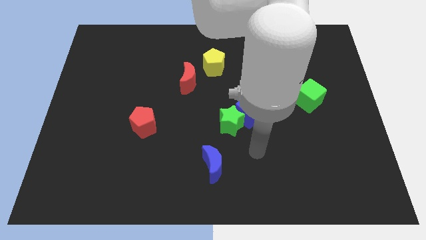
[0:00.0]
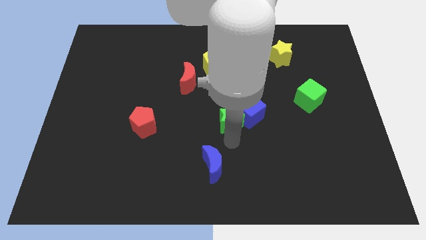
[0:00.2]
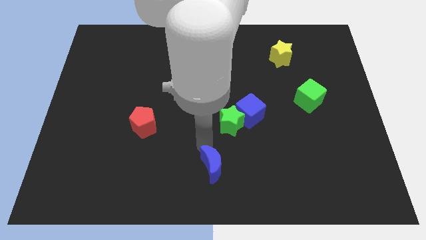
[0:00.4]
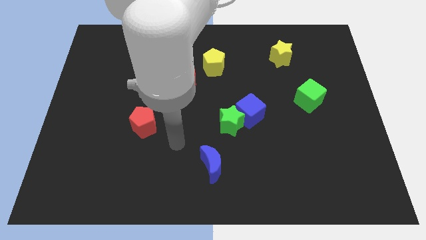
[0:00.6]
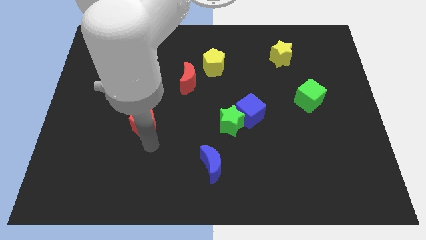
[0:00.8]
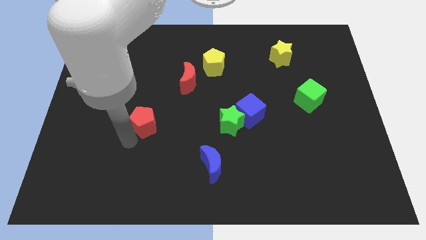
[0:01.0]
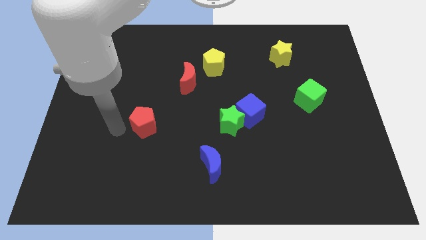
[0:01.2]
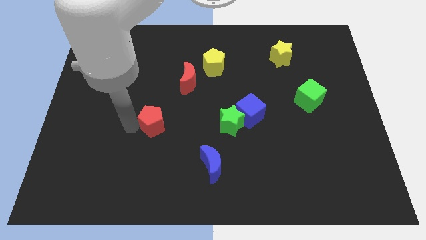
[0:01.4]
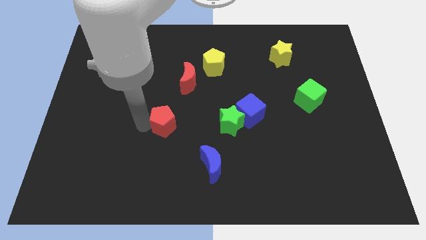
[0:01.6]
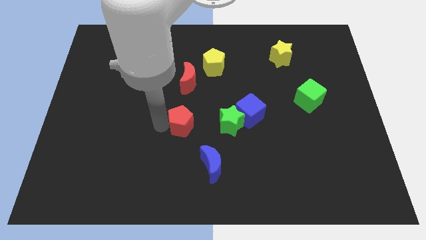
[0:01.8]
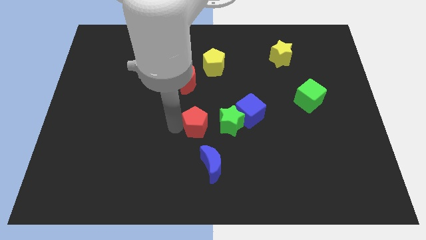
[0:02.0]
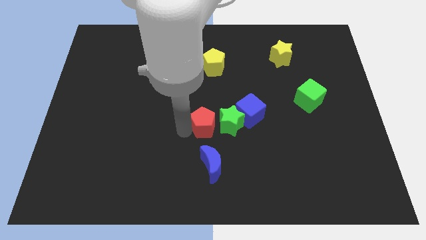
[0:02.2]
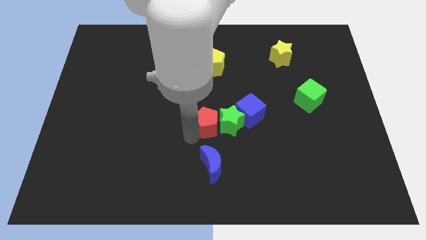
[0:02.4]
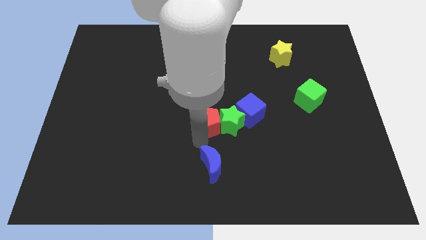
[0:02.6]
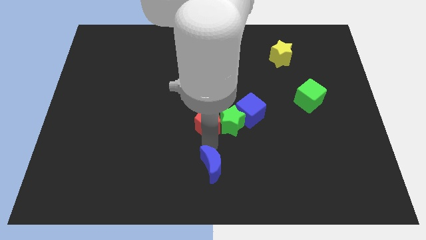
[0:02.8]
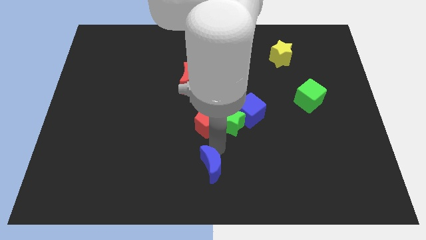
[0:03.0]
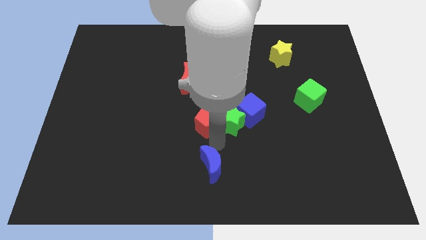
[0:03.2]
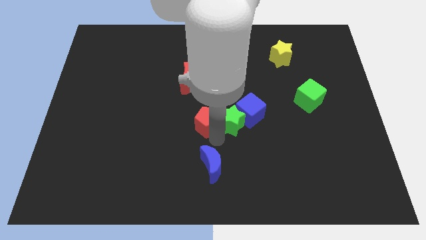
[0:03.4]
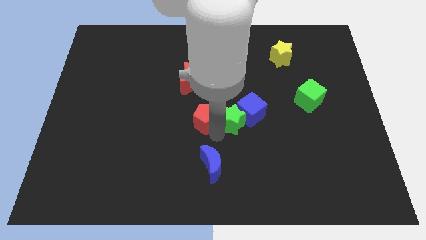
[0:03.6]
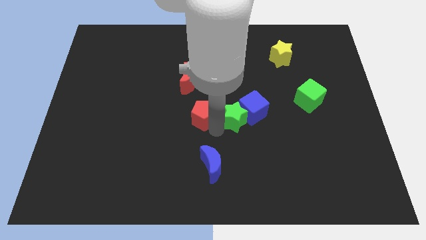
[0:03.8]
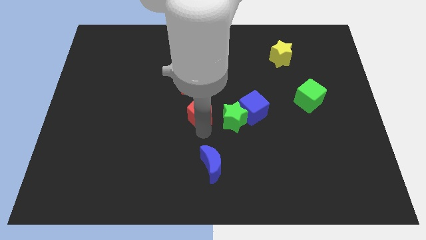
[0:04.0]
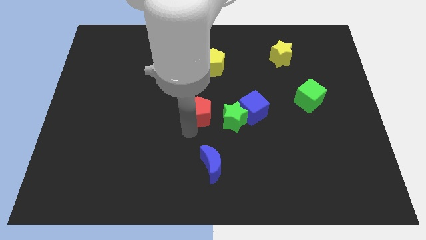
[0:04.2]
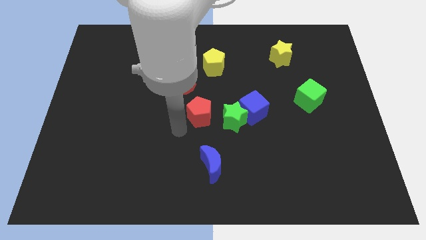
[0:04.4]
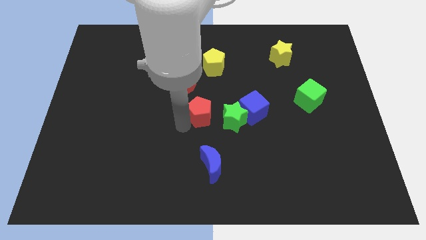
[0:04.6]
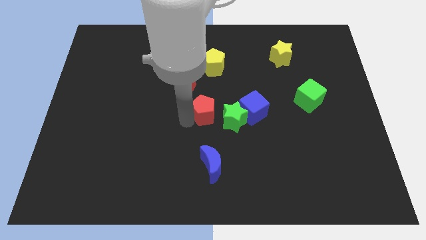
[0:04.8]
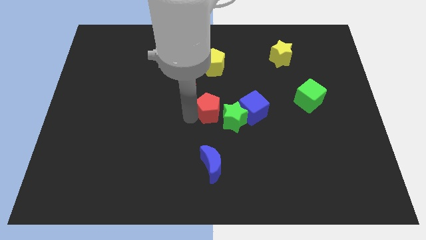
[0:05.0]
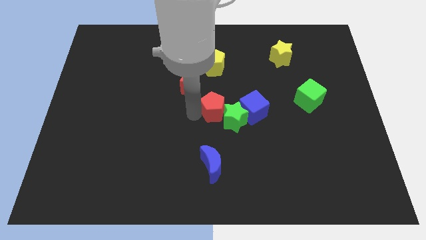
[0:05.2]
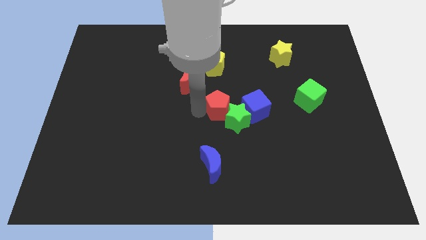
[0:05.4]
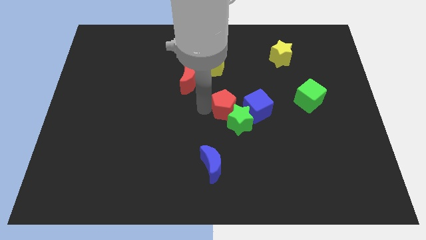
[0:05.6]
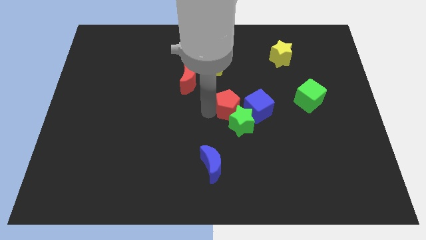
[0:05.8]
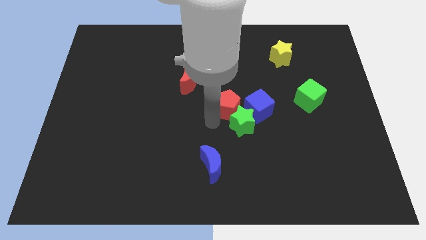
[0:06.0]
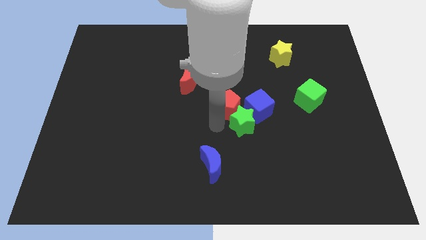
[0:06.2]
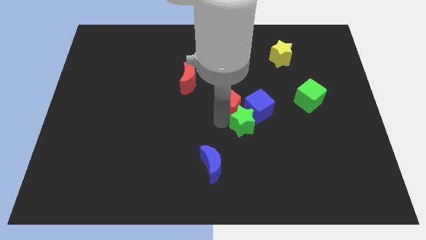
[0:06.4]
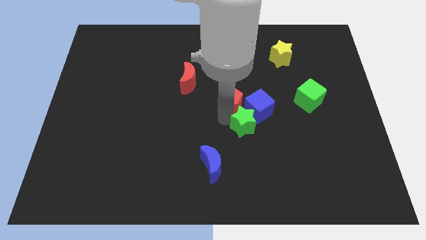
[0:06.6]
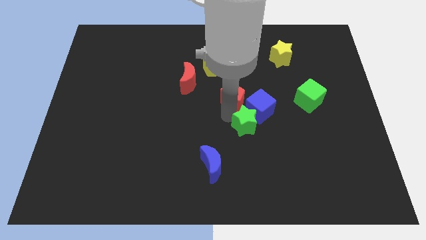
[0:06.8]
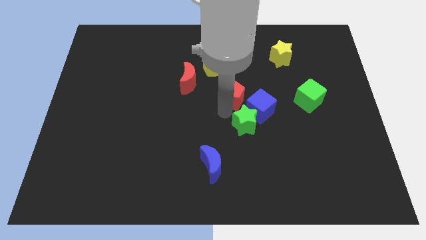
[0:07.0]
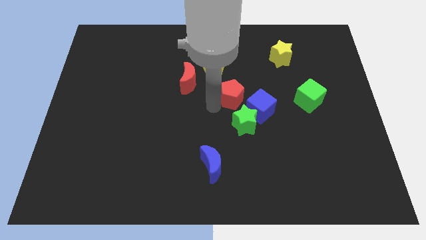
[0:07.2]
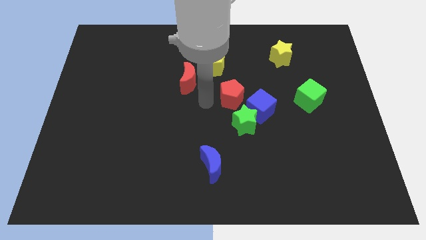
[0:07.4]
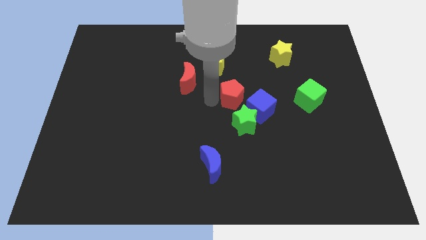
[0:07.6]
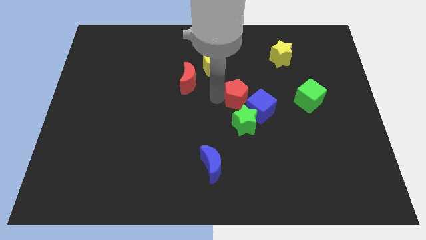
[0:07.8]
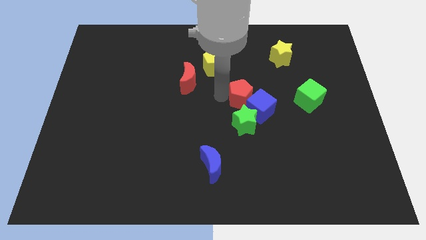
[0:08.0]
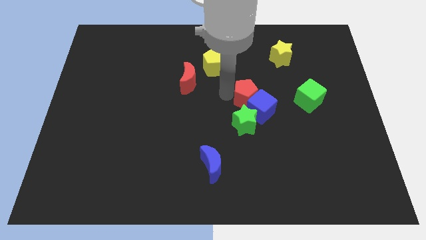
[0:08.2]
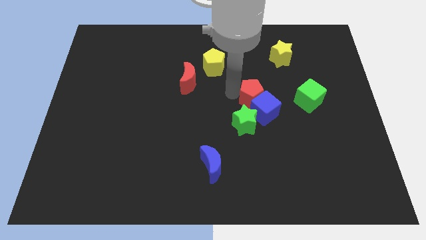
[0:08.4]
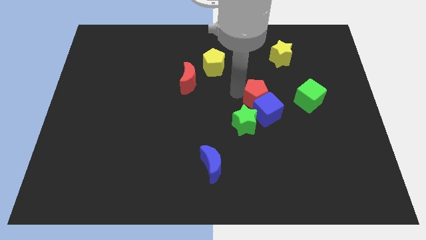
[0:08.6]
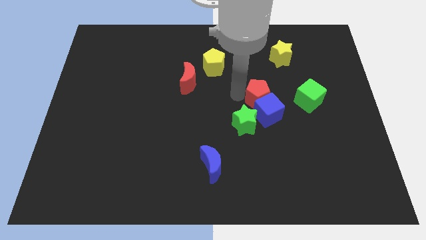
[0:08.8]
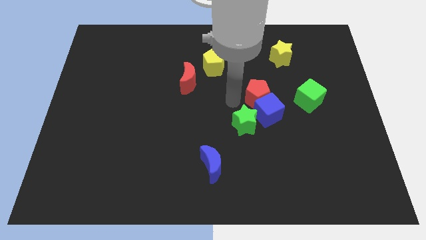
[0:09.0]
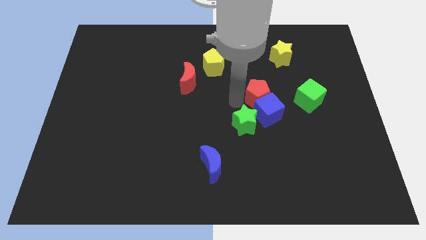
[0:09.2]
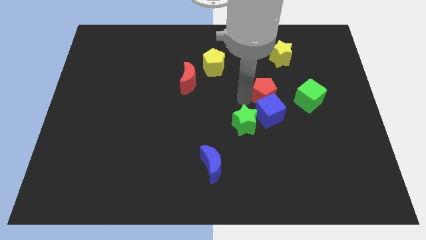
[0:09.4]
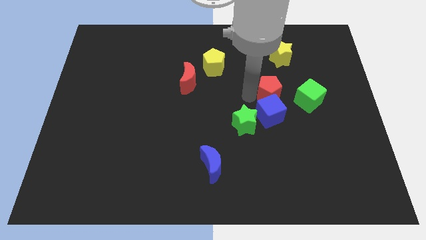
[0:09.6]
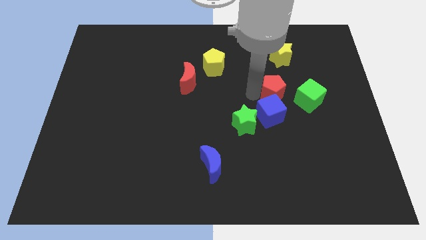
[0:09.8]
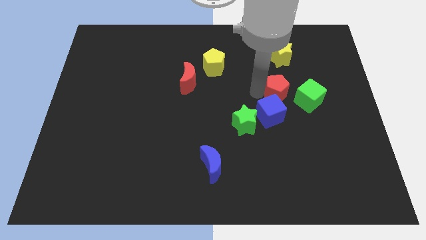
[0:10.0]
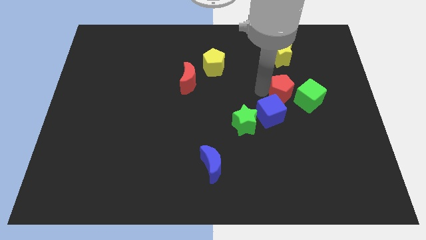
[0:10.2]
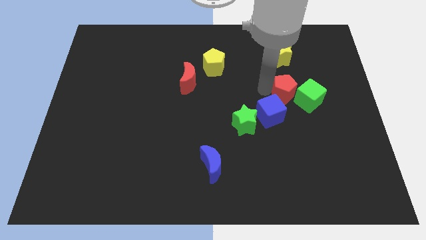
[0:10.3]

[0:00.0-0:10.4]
push the red pentagon to the green cube

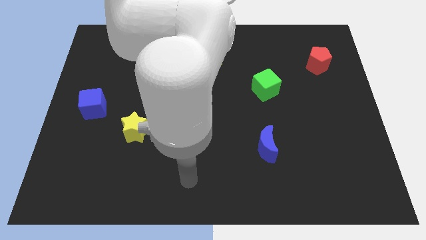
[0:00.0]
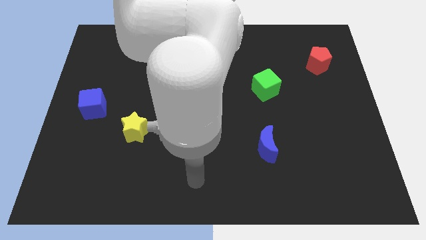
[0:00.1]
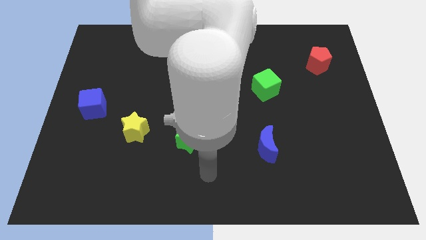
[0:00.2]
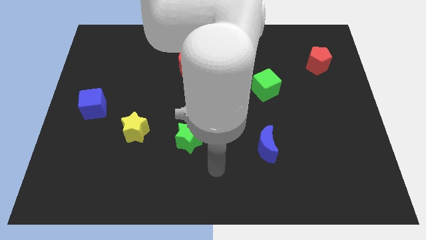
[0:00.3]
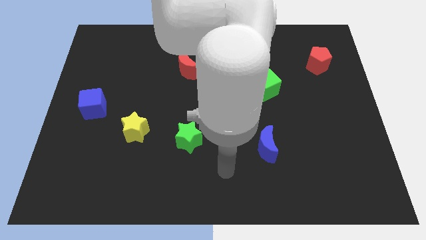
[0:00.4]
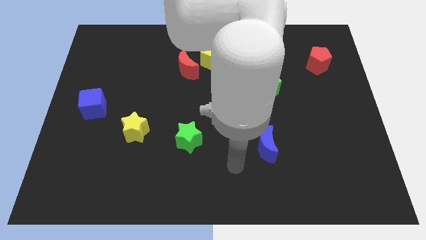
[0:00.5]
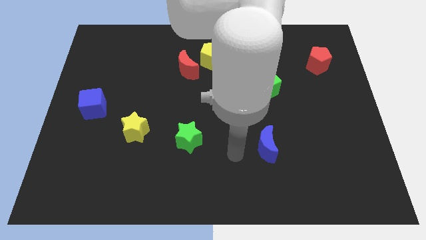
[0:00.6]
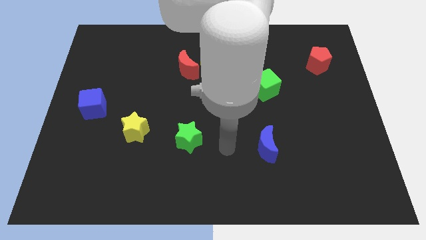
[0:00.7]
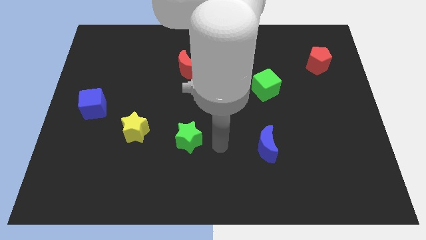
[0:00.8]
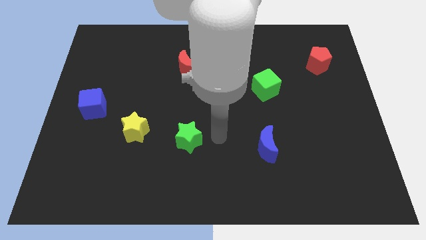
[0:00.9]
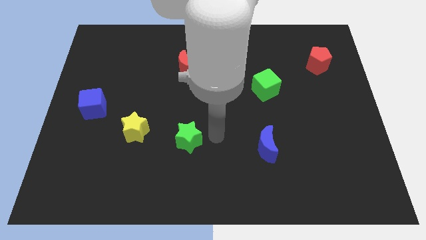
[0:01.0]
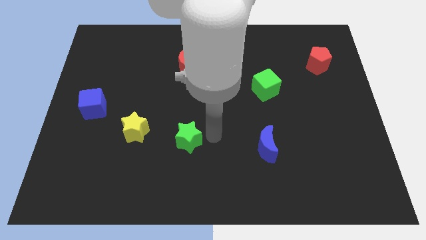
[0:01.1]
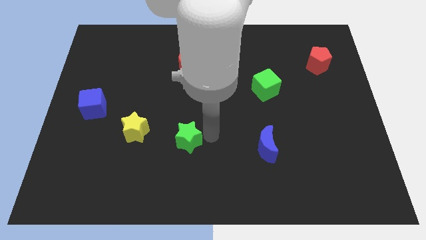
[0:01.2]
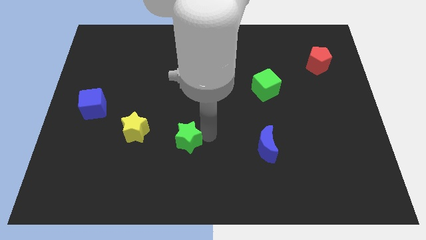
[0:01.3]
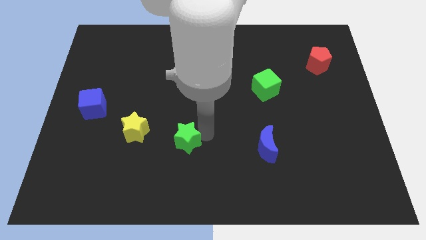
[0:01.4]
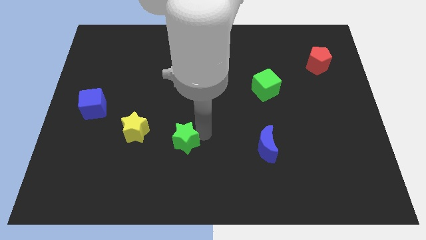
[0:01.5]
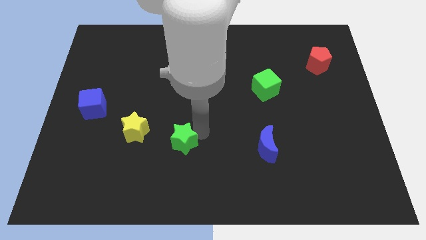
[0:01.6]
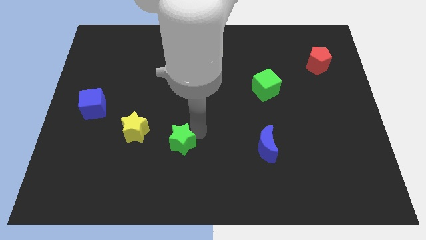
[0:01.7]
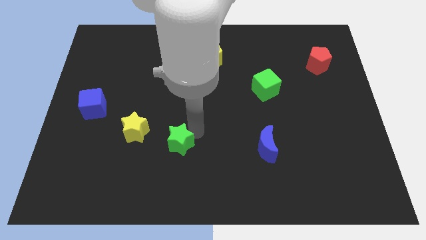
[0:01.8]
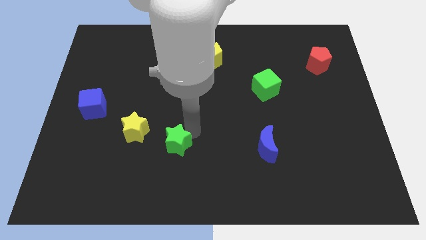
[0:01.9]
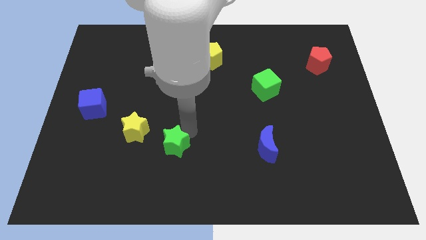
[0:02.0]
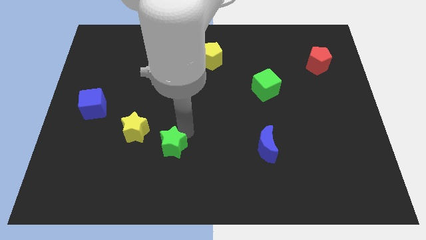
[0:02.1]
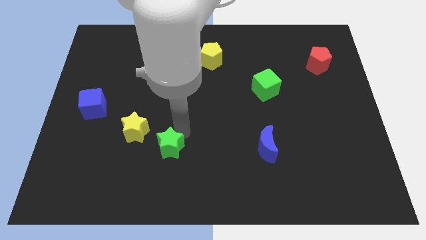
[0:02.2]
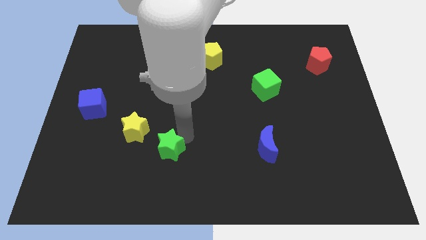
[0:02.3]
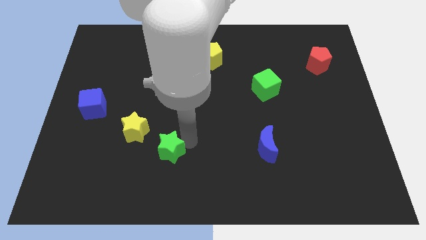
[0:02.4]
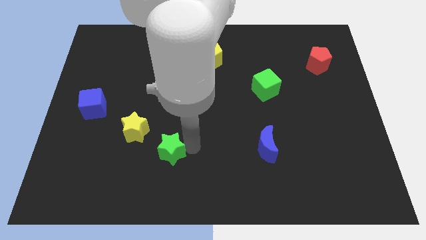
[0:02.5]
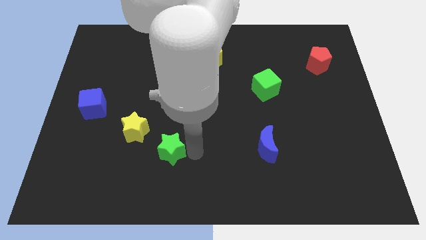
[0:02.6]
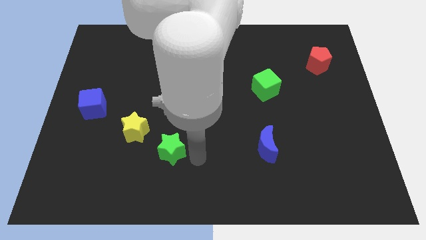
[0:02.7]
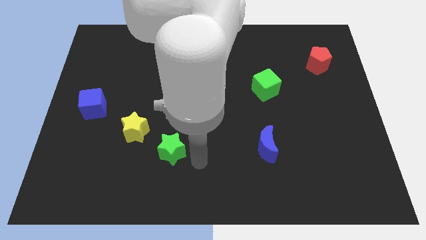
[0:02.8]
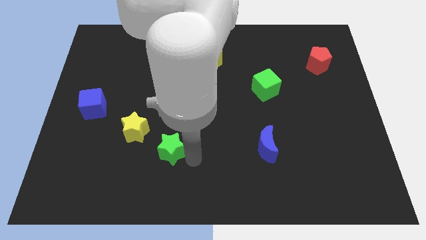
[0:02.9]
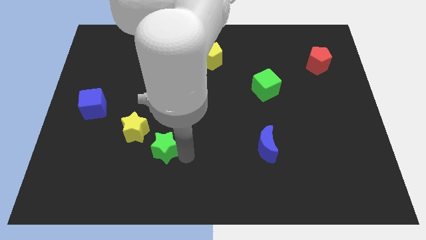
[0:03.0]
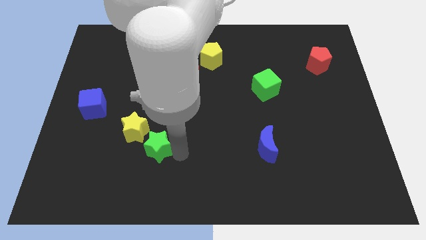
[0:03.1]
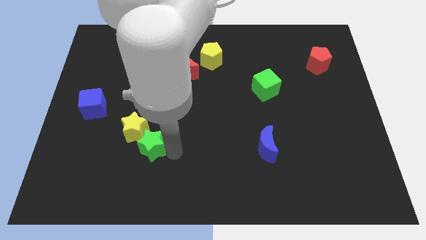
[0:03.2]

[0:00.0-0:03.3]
slide the green star next to the yellow star
